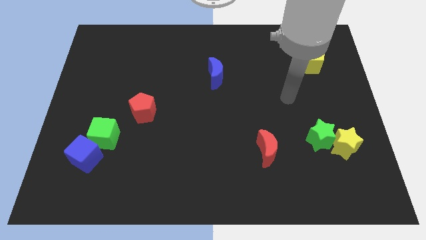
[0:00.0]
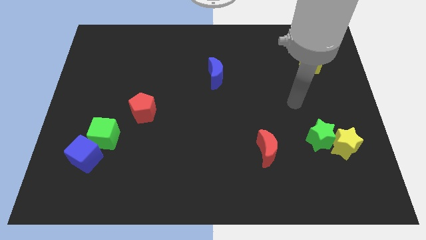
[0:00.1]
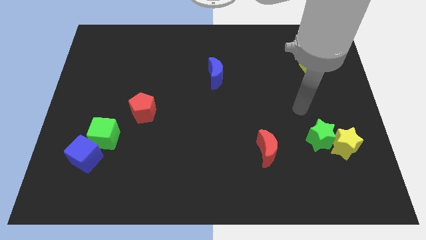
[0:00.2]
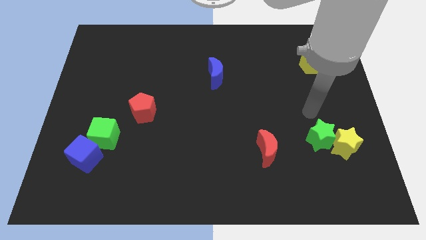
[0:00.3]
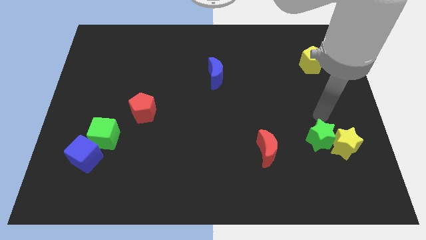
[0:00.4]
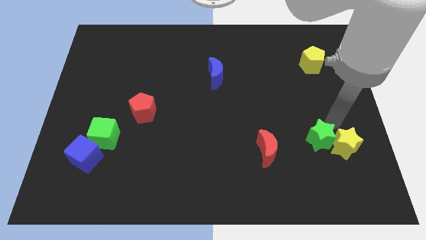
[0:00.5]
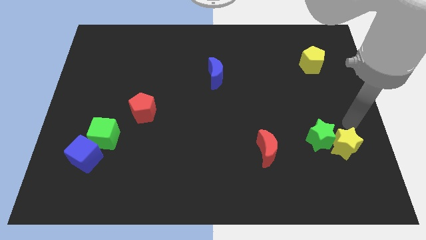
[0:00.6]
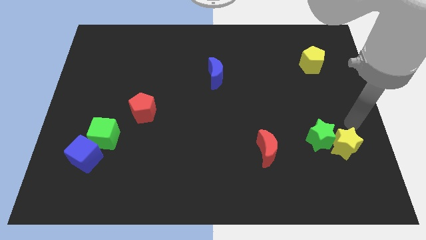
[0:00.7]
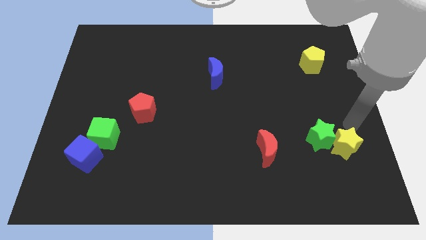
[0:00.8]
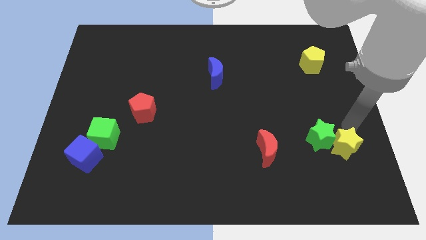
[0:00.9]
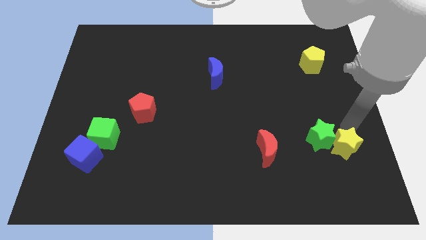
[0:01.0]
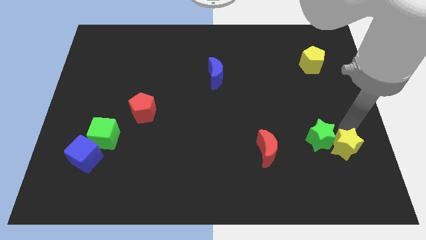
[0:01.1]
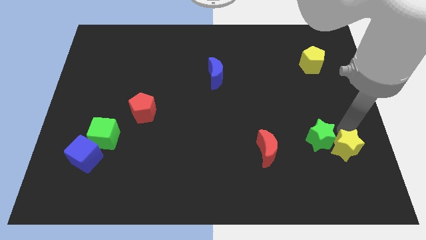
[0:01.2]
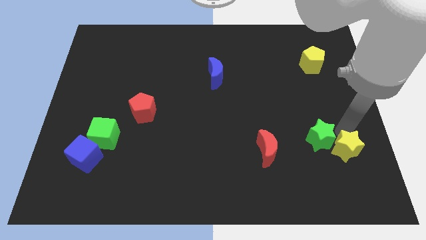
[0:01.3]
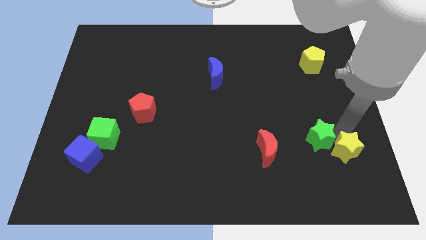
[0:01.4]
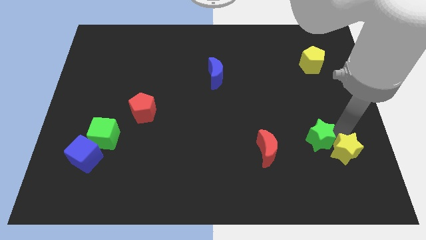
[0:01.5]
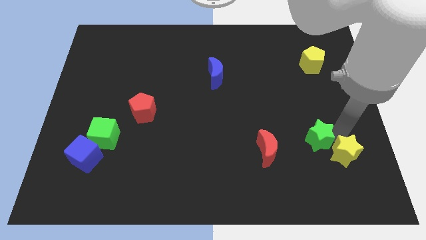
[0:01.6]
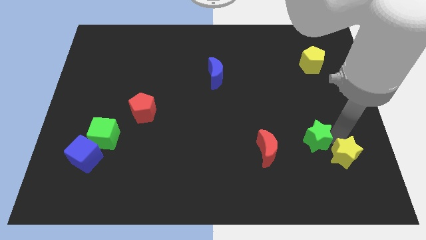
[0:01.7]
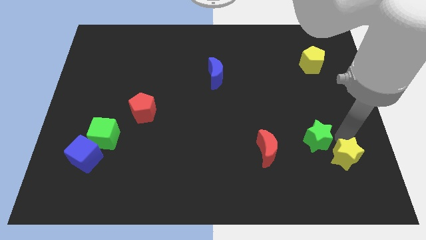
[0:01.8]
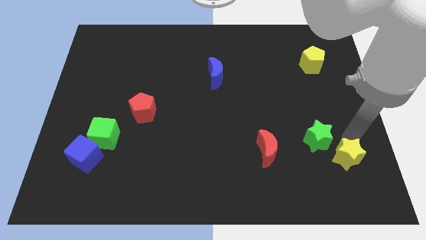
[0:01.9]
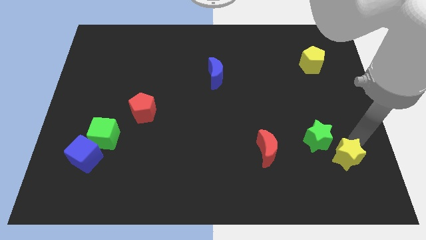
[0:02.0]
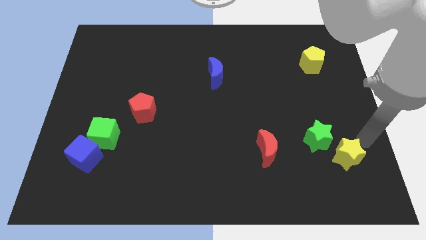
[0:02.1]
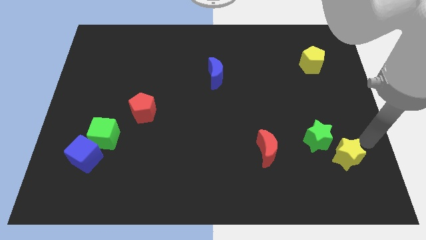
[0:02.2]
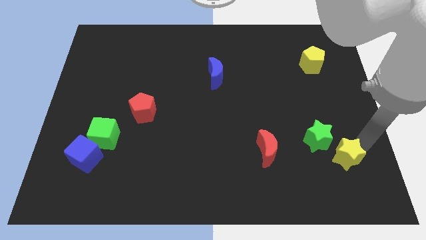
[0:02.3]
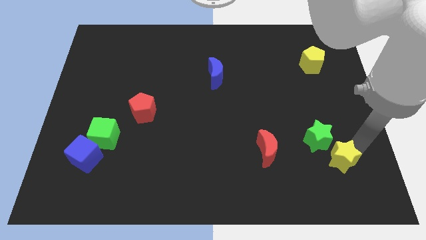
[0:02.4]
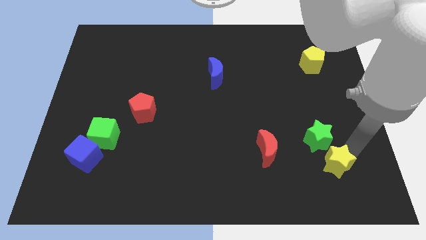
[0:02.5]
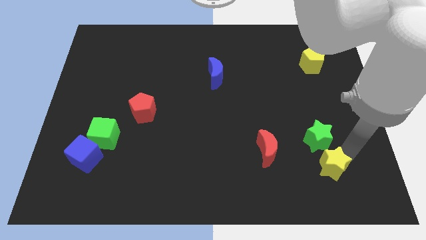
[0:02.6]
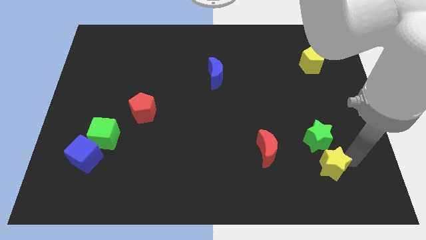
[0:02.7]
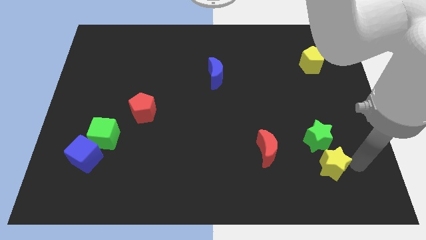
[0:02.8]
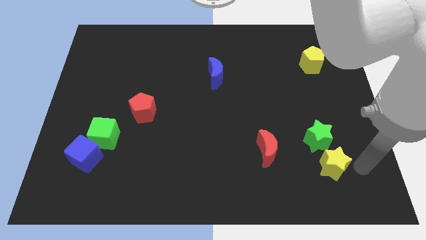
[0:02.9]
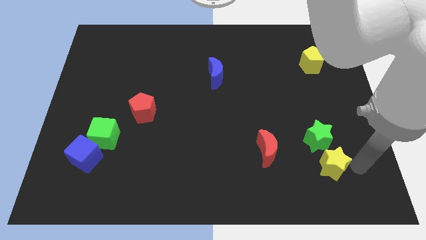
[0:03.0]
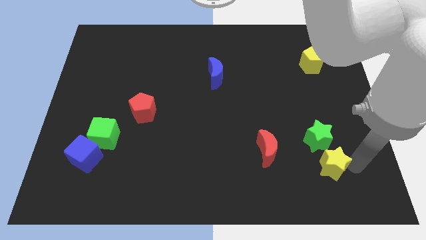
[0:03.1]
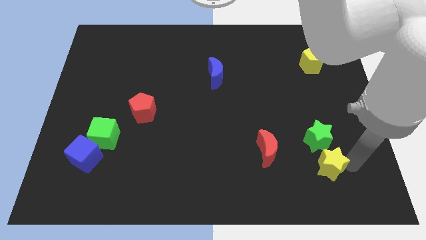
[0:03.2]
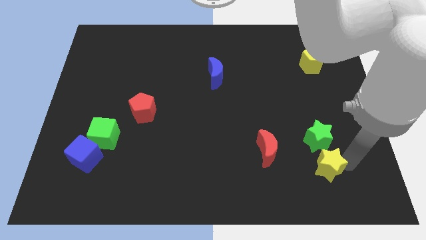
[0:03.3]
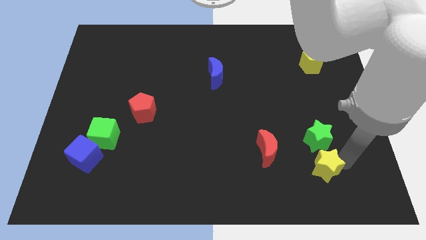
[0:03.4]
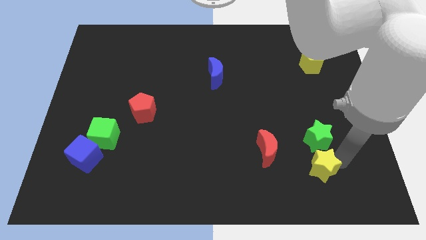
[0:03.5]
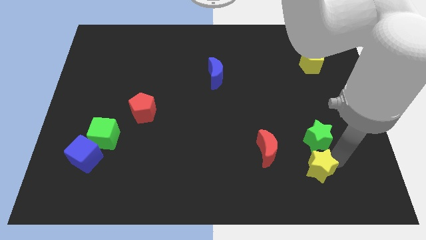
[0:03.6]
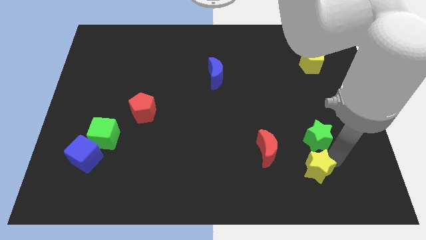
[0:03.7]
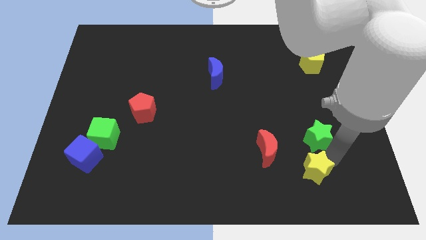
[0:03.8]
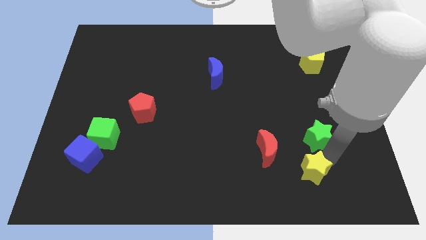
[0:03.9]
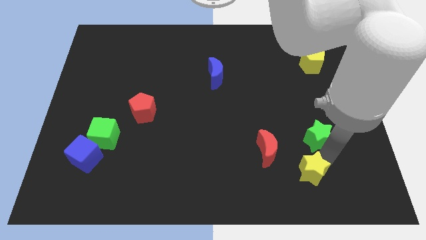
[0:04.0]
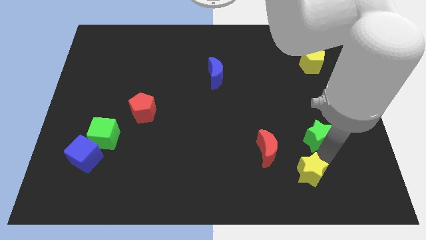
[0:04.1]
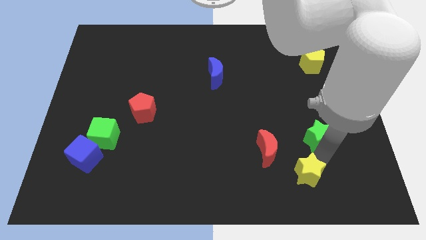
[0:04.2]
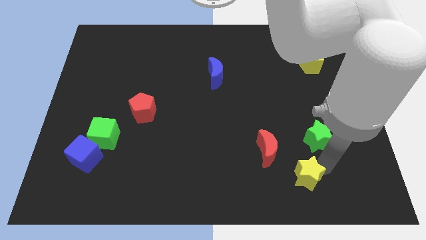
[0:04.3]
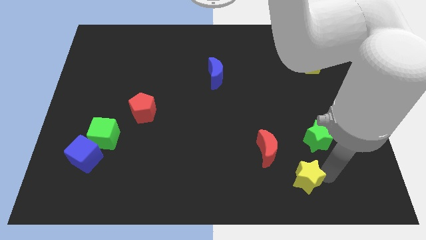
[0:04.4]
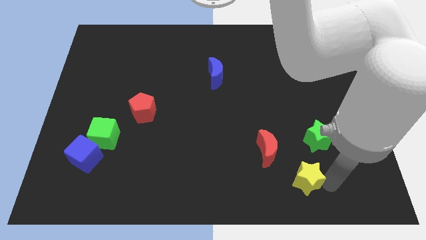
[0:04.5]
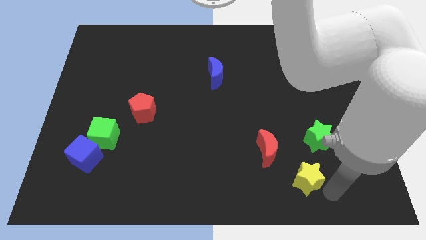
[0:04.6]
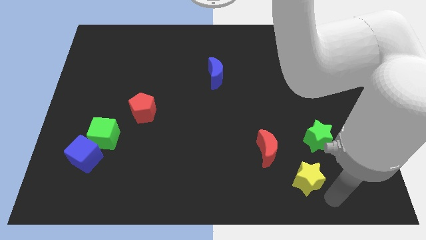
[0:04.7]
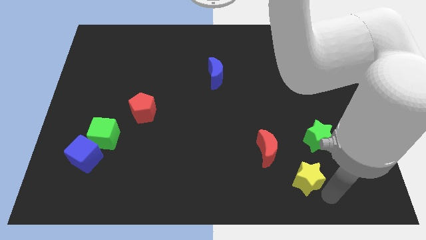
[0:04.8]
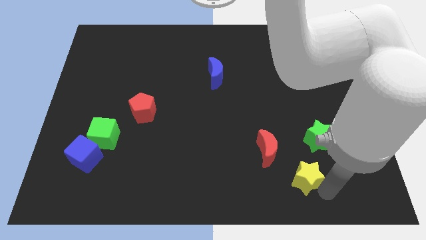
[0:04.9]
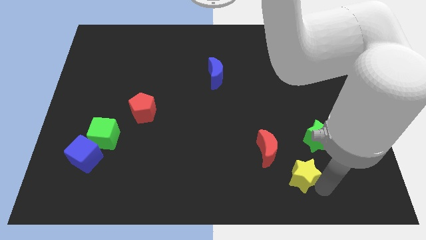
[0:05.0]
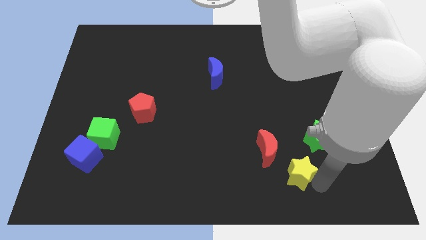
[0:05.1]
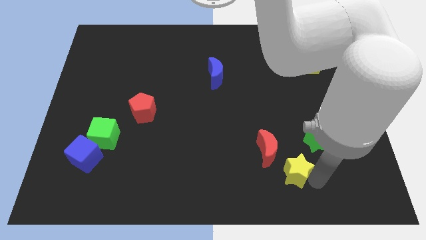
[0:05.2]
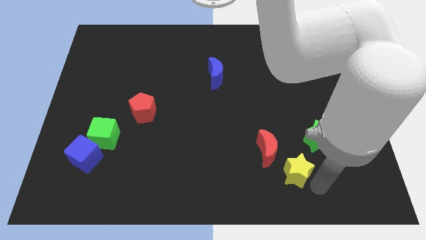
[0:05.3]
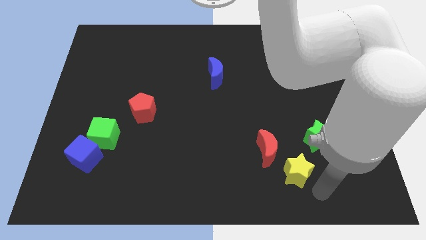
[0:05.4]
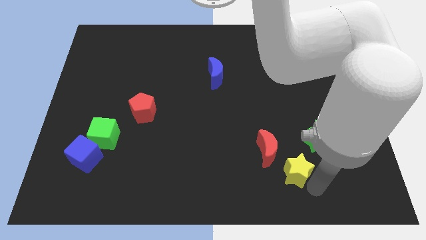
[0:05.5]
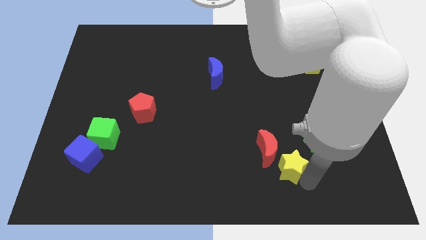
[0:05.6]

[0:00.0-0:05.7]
move the yellow star close to the red moon

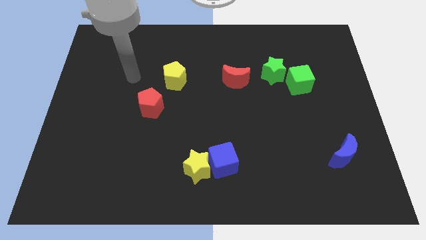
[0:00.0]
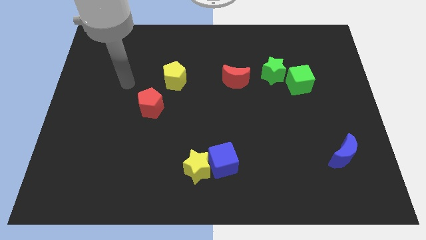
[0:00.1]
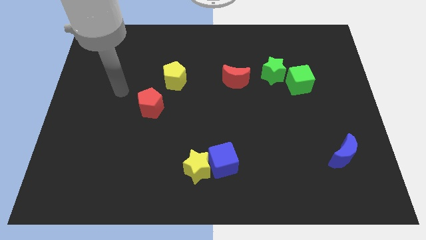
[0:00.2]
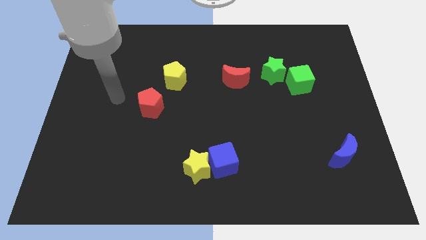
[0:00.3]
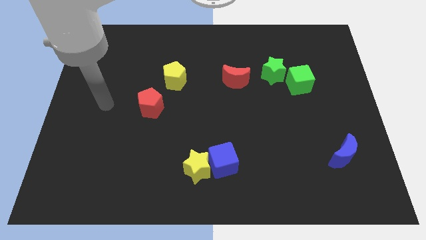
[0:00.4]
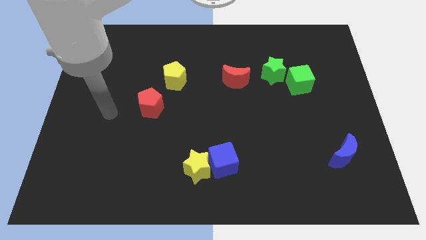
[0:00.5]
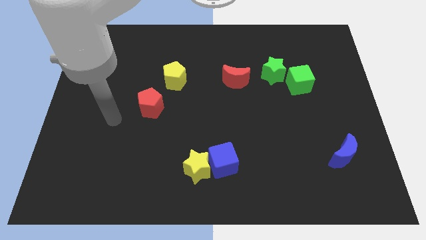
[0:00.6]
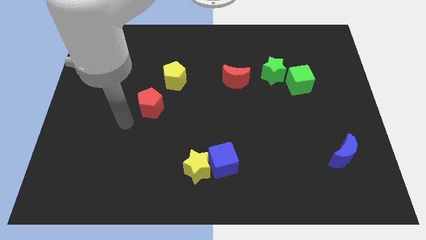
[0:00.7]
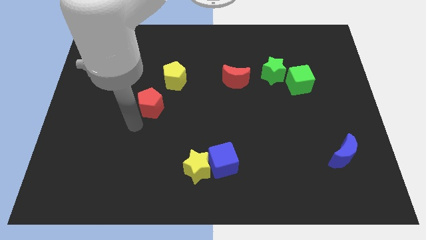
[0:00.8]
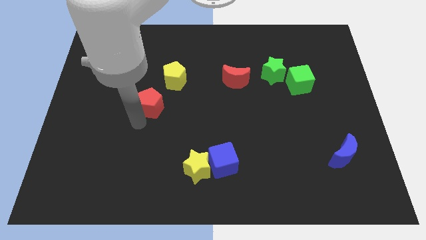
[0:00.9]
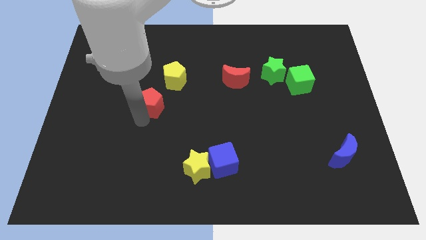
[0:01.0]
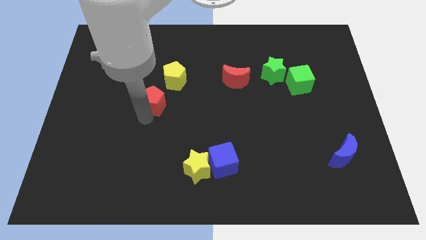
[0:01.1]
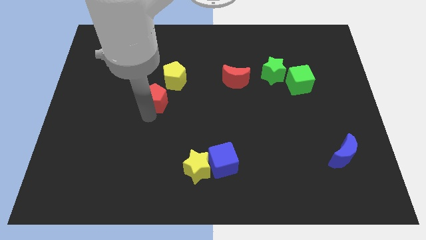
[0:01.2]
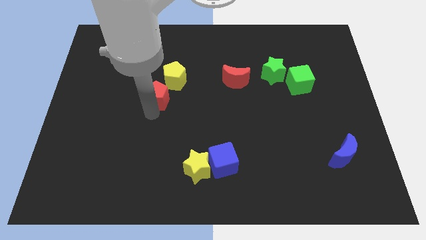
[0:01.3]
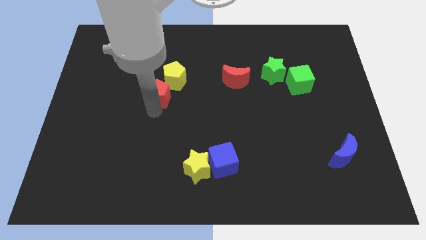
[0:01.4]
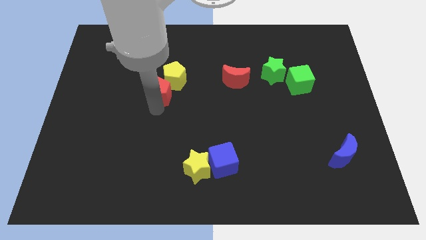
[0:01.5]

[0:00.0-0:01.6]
slide the red pentagon to the yellow pentagon
